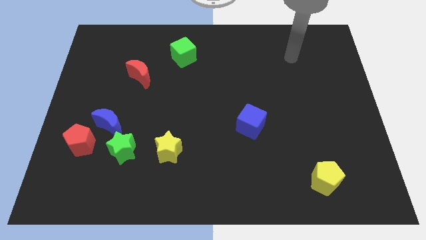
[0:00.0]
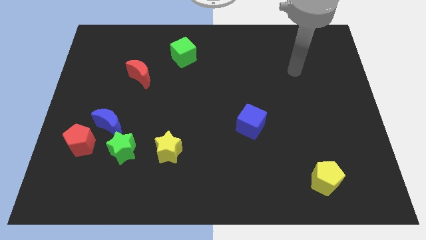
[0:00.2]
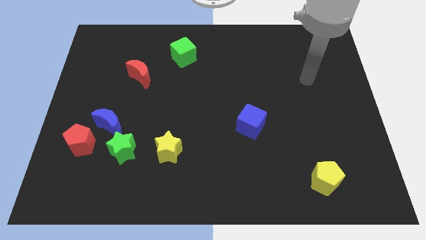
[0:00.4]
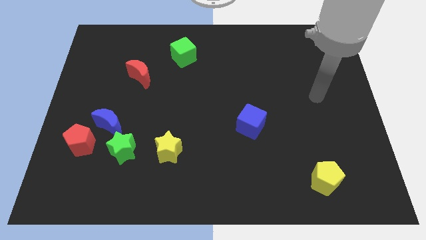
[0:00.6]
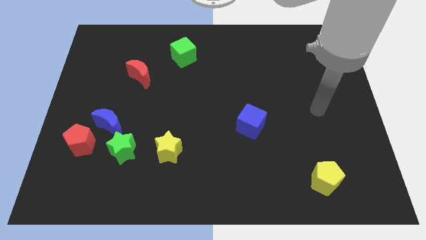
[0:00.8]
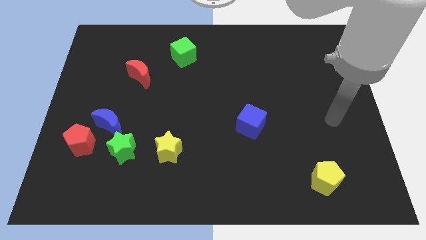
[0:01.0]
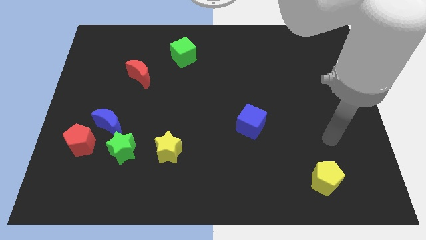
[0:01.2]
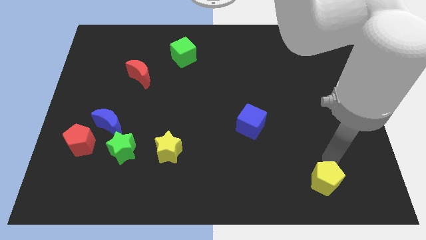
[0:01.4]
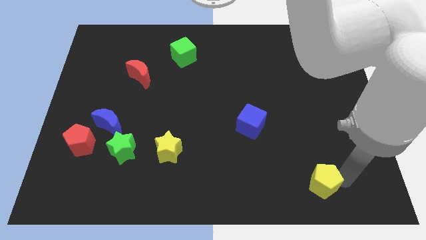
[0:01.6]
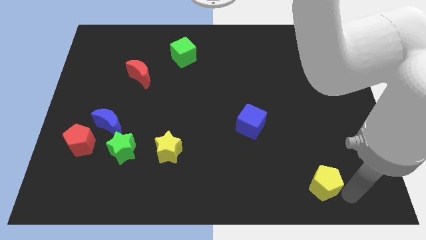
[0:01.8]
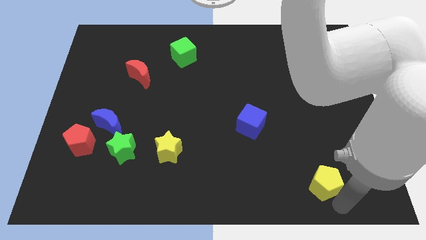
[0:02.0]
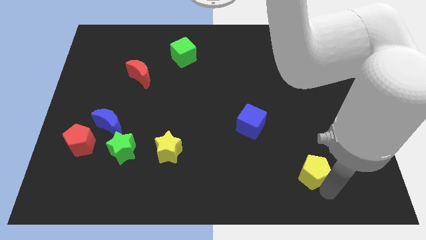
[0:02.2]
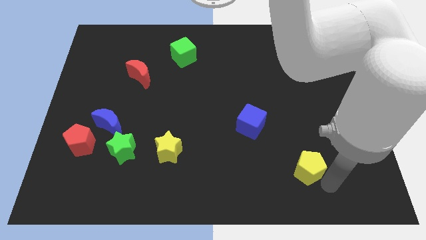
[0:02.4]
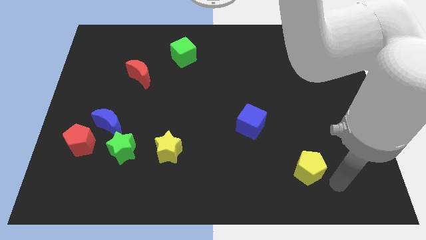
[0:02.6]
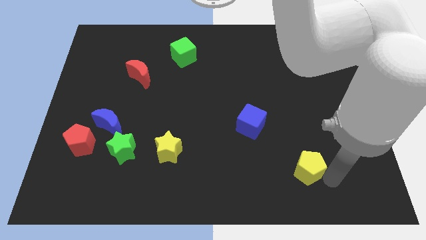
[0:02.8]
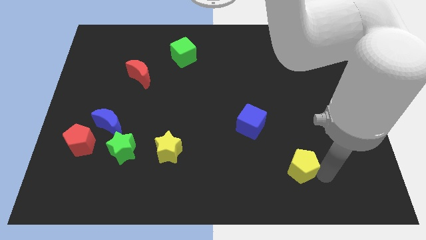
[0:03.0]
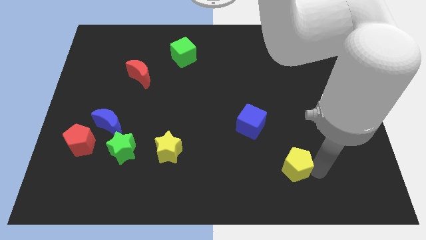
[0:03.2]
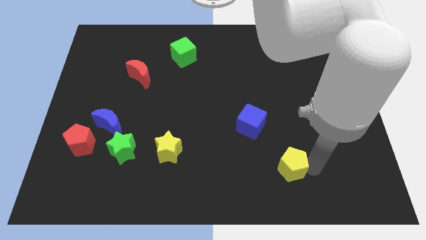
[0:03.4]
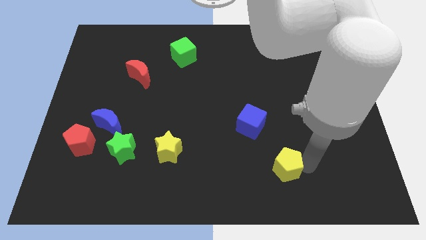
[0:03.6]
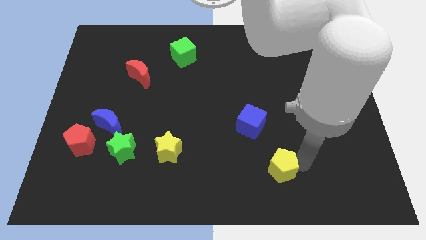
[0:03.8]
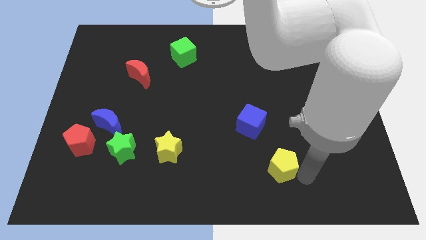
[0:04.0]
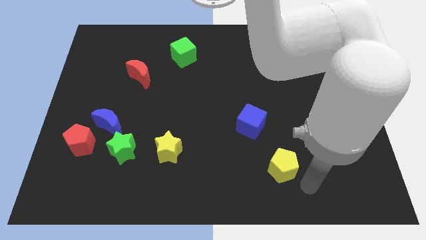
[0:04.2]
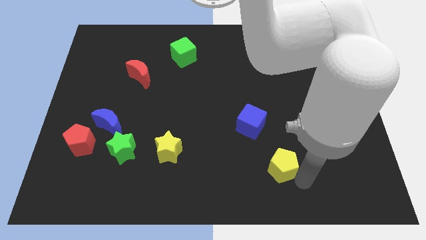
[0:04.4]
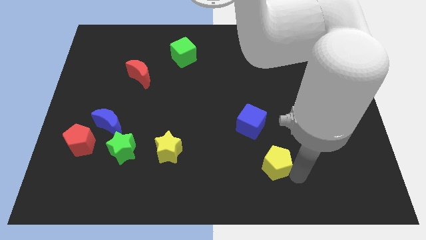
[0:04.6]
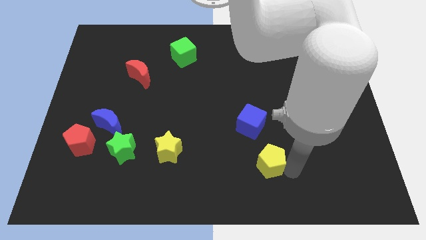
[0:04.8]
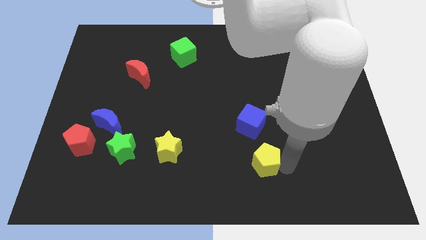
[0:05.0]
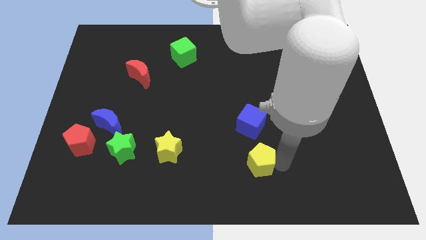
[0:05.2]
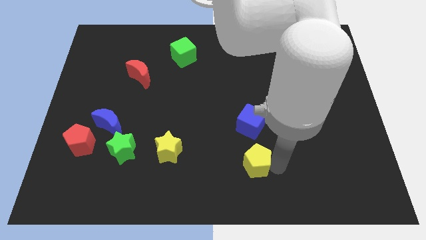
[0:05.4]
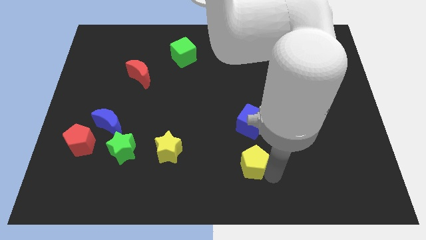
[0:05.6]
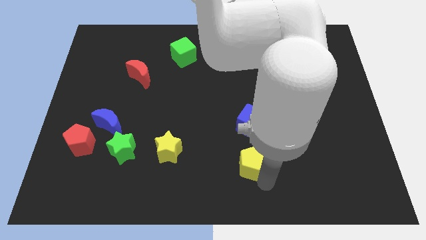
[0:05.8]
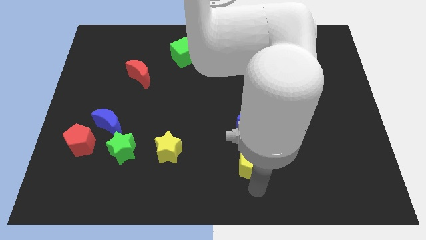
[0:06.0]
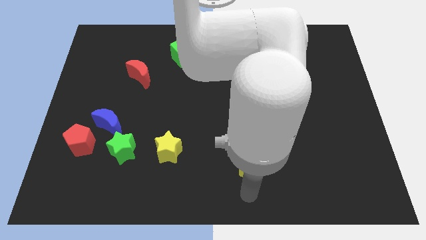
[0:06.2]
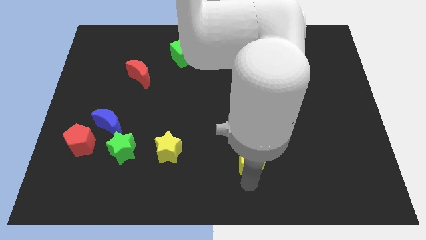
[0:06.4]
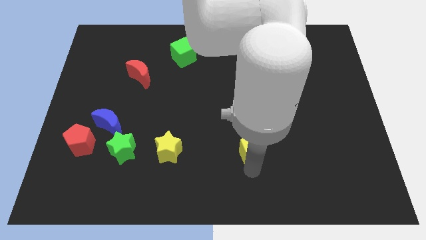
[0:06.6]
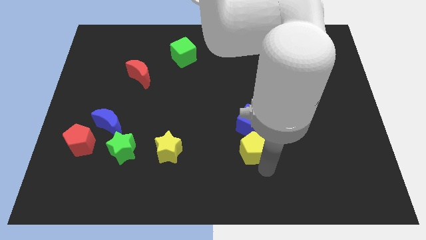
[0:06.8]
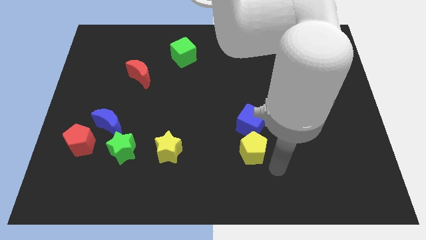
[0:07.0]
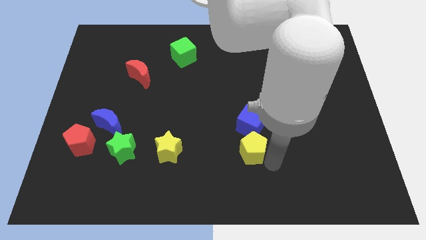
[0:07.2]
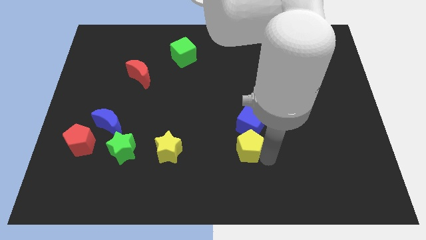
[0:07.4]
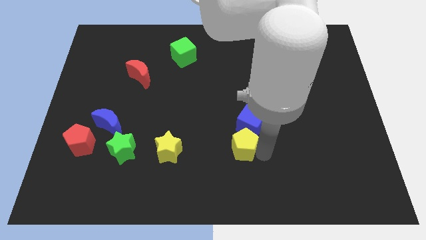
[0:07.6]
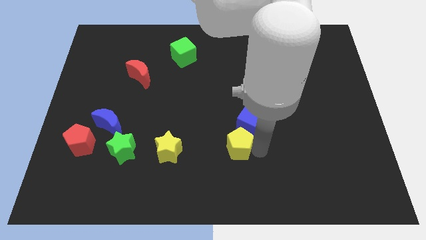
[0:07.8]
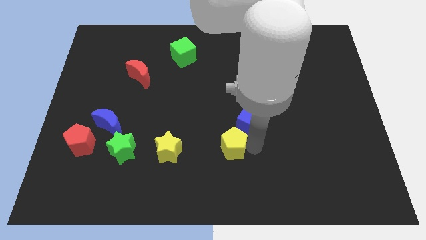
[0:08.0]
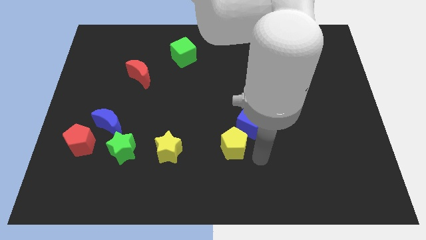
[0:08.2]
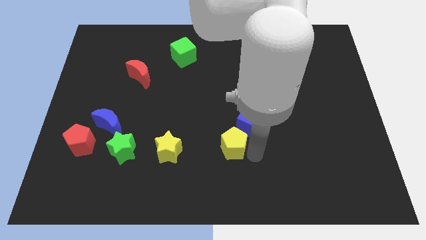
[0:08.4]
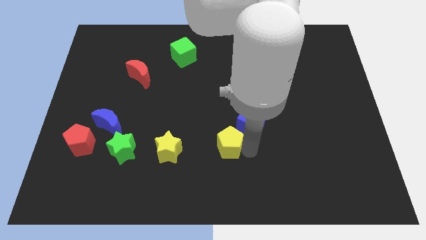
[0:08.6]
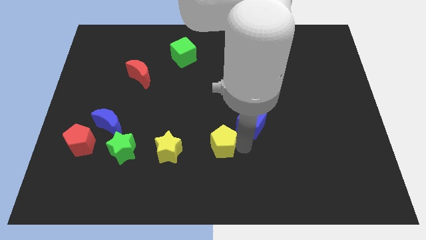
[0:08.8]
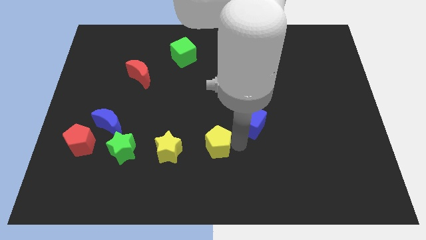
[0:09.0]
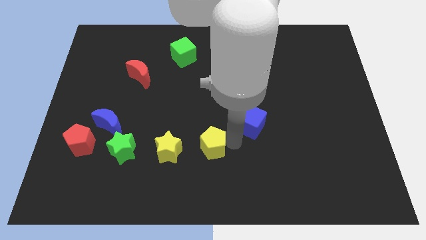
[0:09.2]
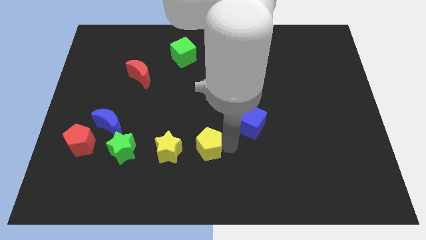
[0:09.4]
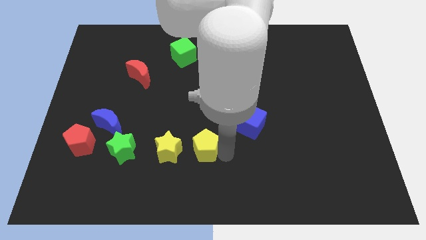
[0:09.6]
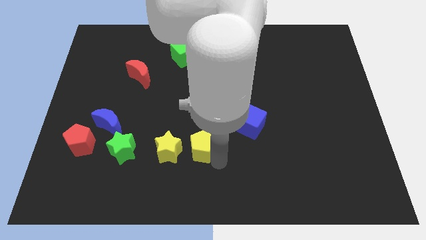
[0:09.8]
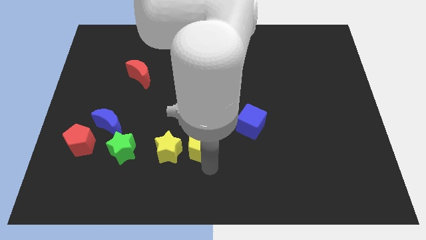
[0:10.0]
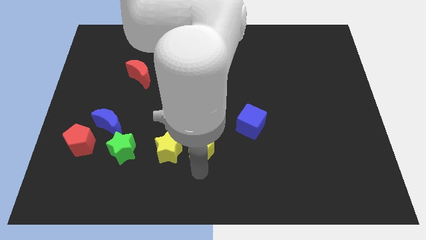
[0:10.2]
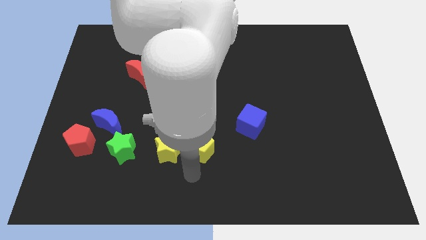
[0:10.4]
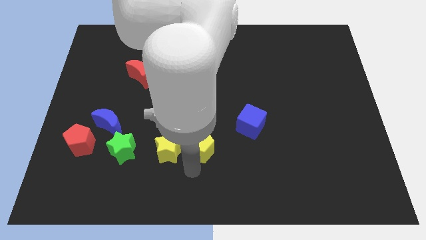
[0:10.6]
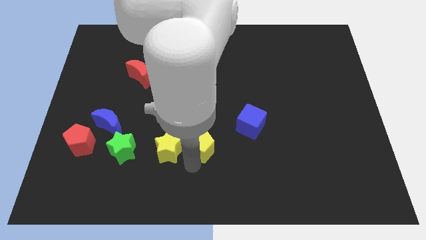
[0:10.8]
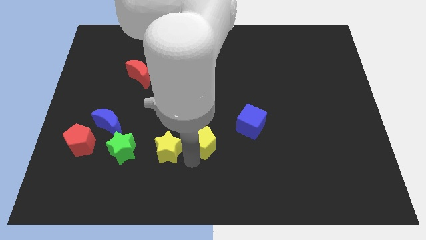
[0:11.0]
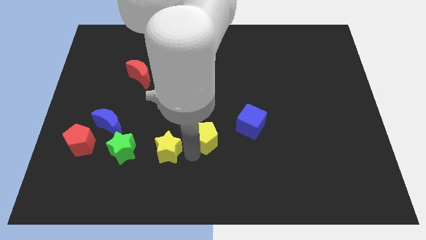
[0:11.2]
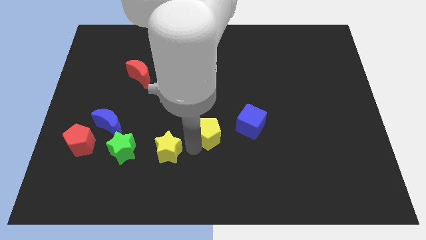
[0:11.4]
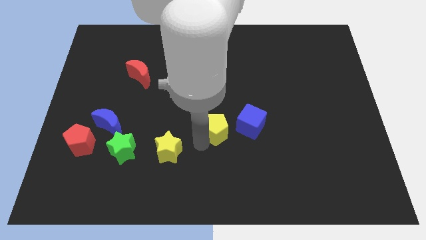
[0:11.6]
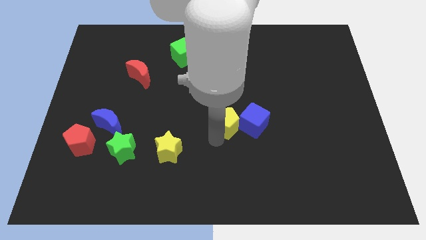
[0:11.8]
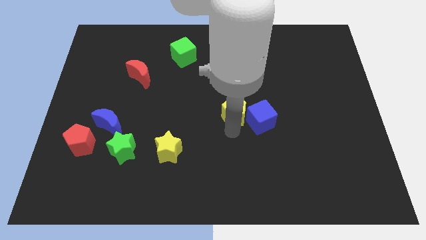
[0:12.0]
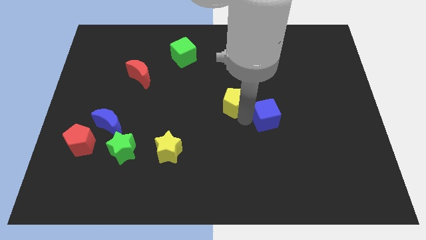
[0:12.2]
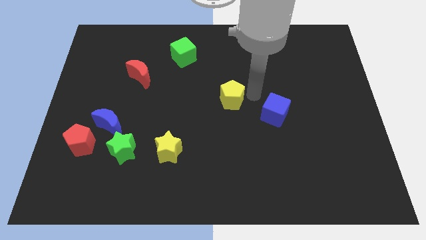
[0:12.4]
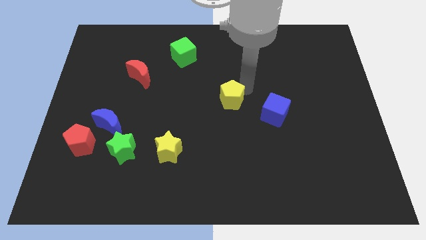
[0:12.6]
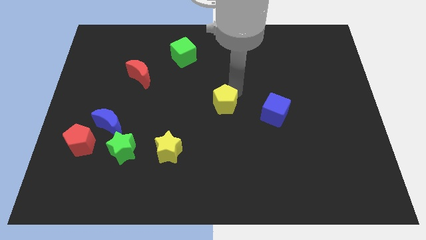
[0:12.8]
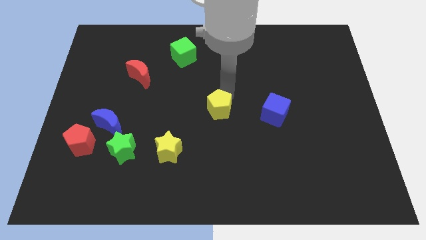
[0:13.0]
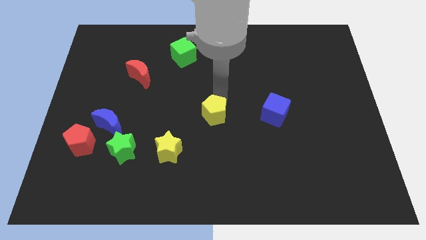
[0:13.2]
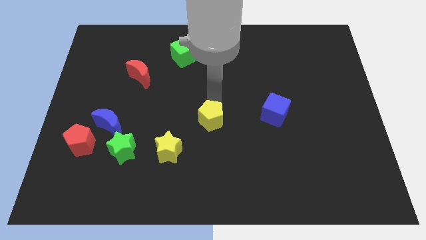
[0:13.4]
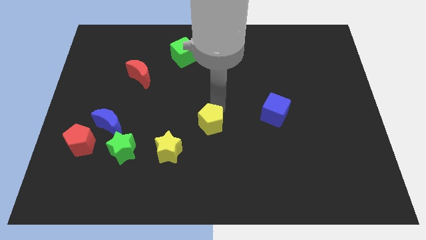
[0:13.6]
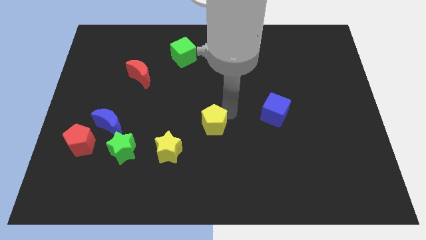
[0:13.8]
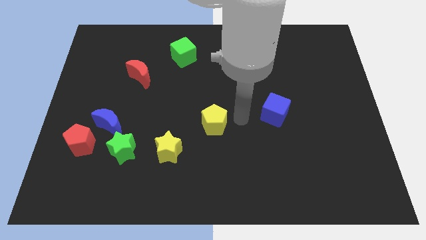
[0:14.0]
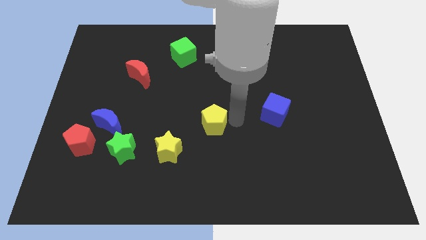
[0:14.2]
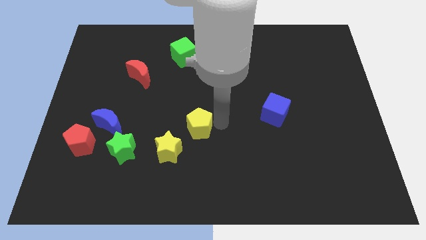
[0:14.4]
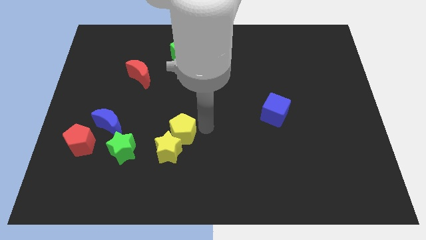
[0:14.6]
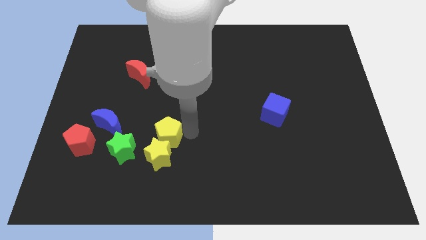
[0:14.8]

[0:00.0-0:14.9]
move the yellow pentagon to the top right of the green star
